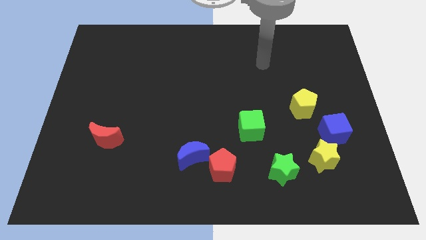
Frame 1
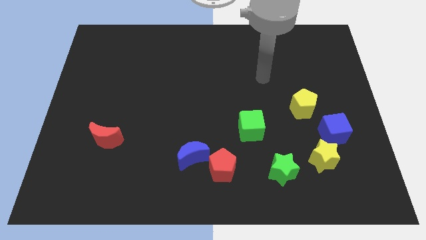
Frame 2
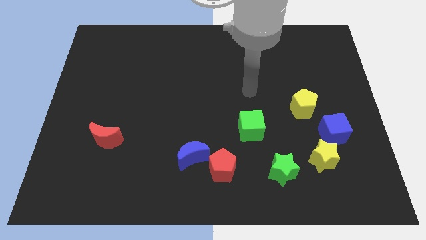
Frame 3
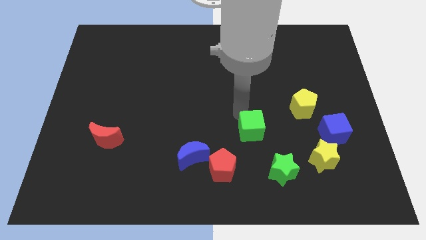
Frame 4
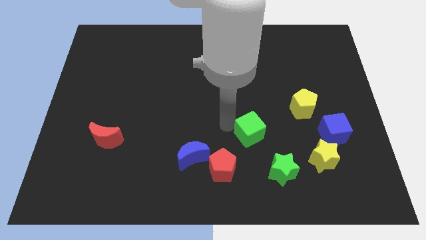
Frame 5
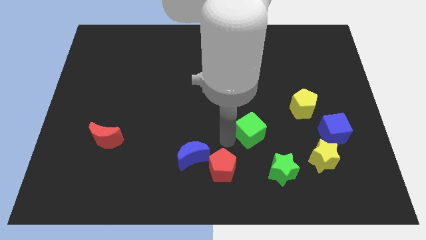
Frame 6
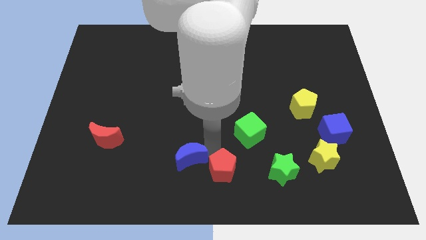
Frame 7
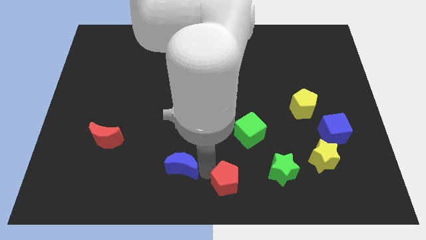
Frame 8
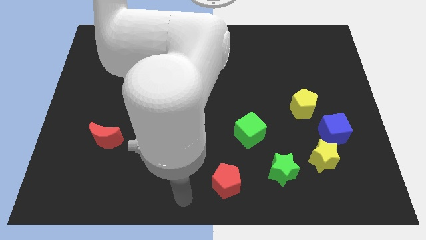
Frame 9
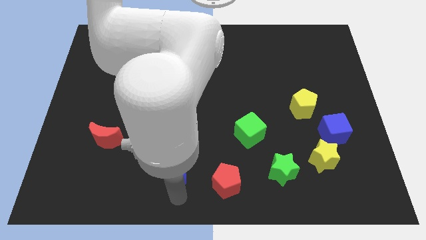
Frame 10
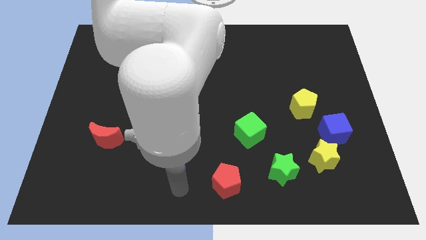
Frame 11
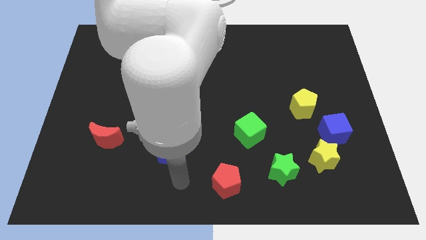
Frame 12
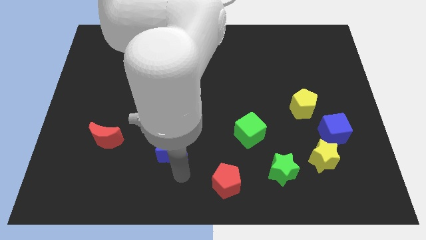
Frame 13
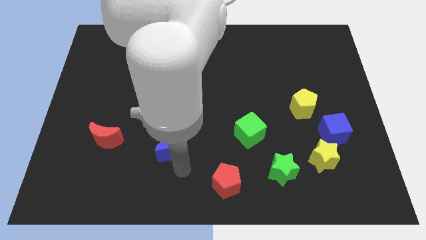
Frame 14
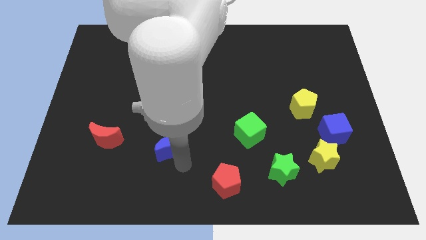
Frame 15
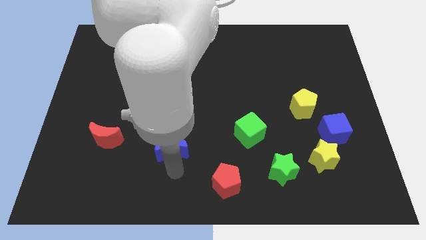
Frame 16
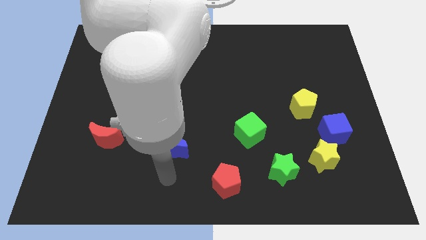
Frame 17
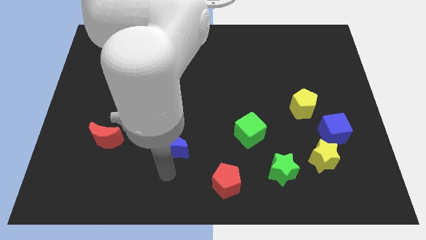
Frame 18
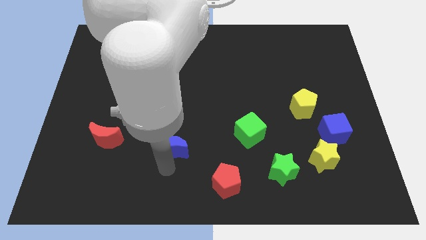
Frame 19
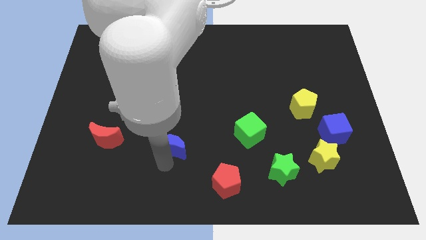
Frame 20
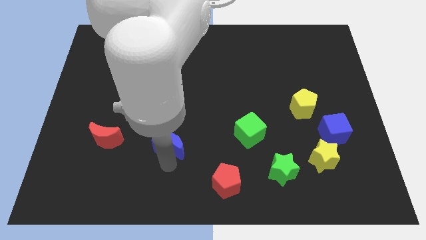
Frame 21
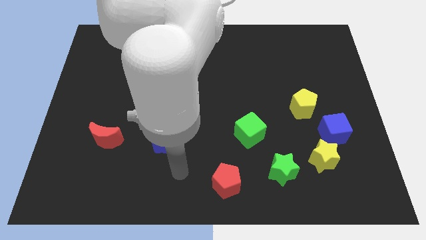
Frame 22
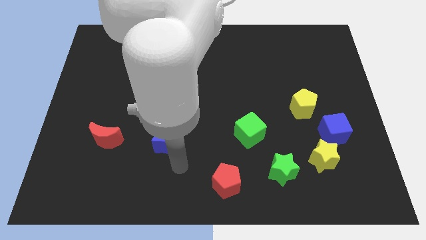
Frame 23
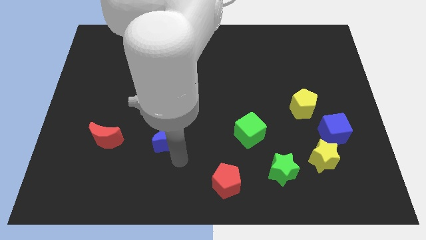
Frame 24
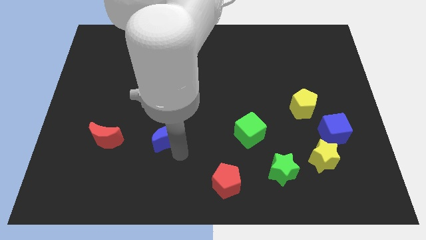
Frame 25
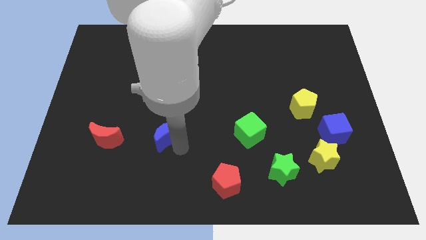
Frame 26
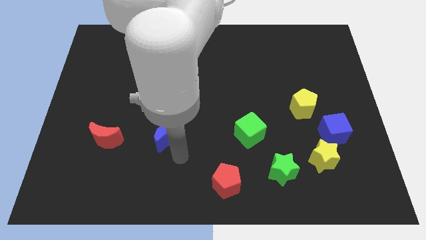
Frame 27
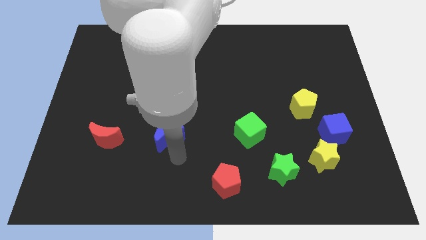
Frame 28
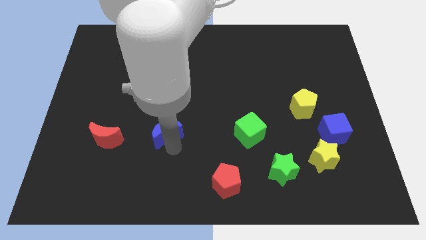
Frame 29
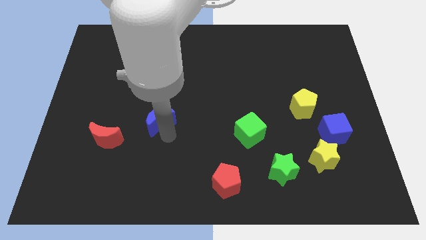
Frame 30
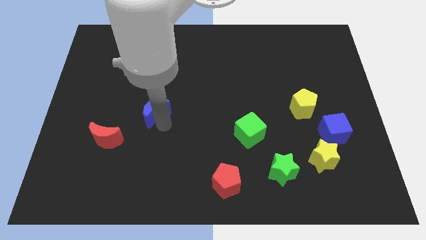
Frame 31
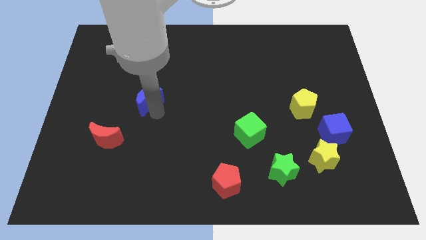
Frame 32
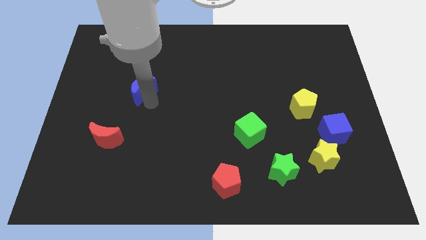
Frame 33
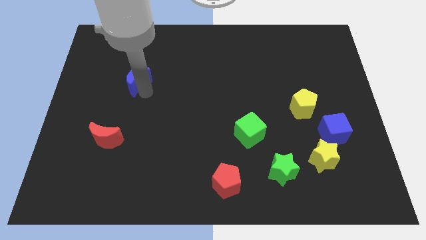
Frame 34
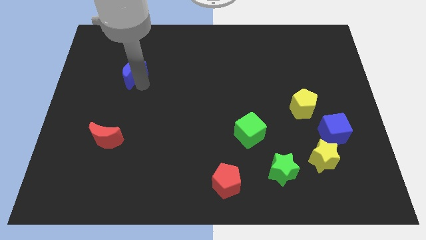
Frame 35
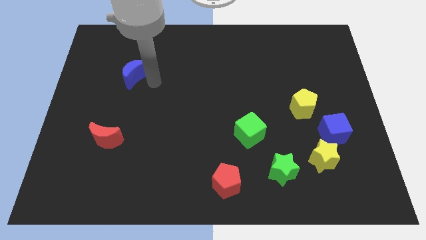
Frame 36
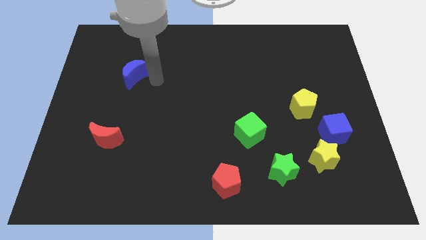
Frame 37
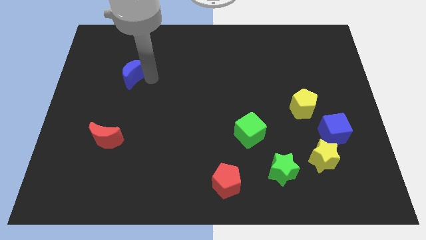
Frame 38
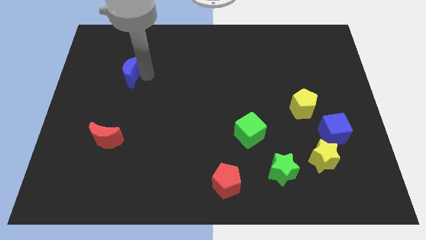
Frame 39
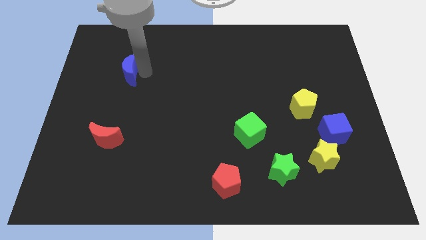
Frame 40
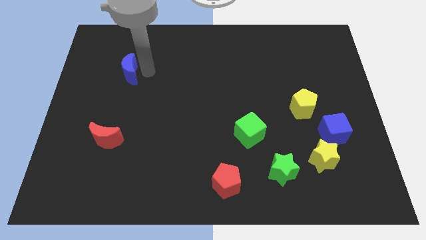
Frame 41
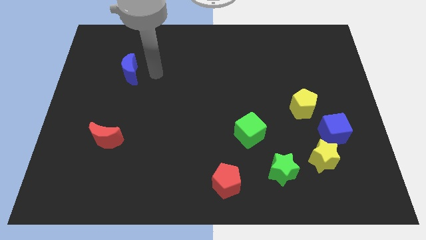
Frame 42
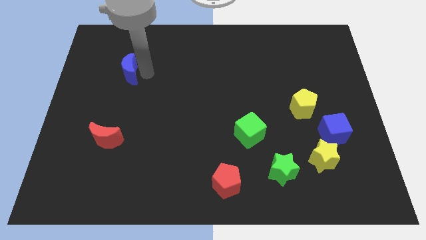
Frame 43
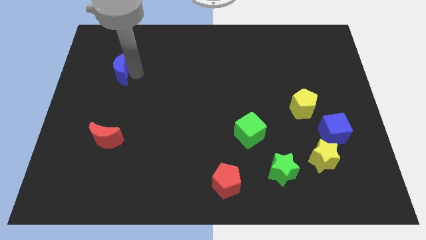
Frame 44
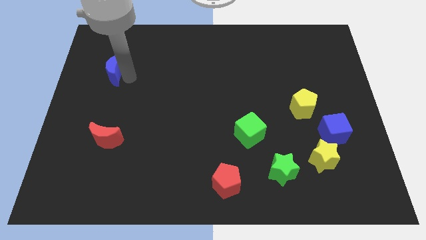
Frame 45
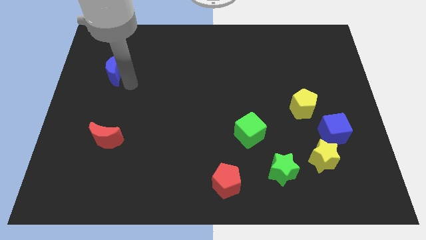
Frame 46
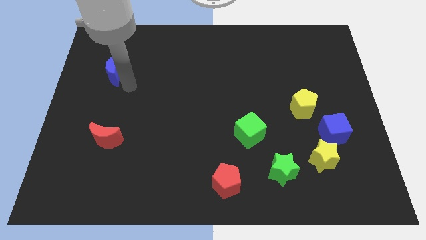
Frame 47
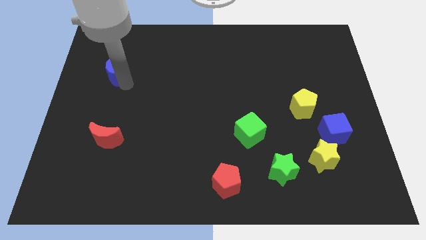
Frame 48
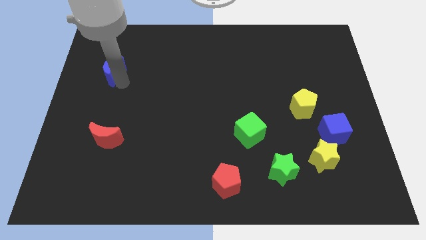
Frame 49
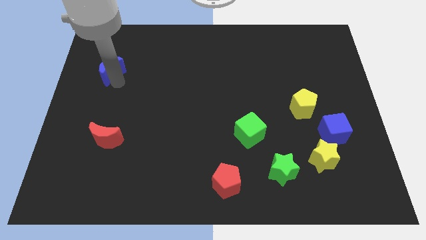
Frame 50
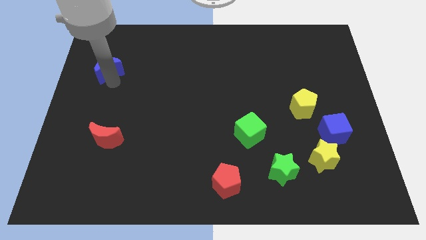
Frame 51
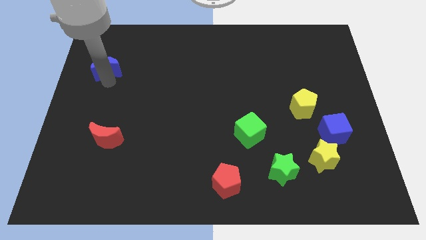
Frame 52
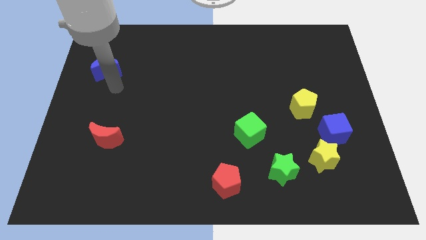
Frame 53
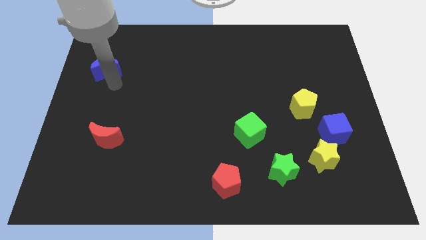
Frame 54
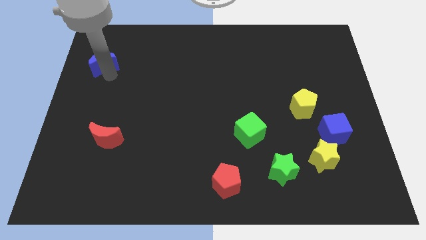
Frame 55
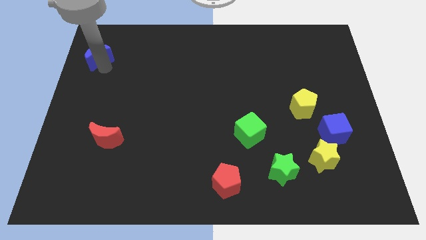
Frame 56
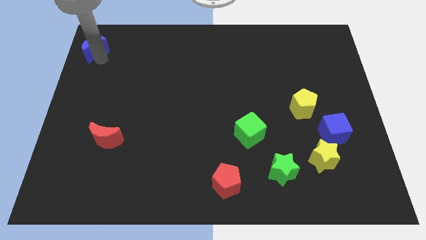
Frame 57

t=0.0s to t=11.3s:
push the blue moon to the top left corner

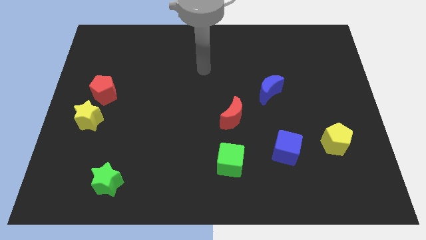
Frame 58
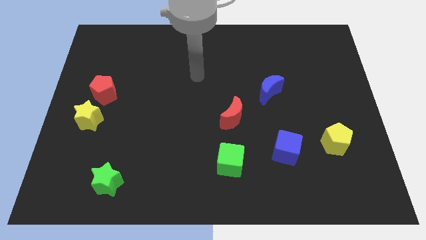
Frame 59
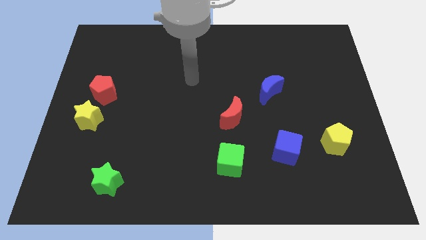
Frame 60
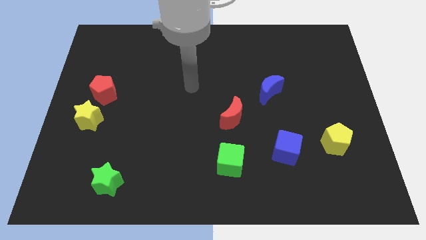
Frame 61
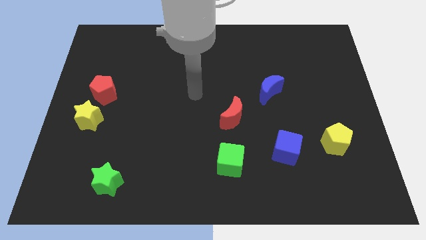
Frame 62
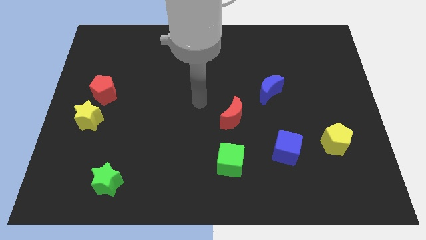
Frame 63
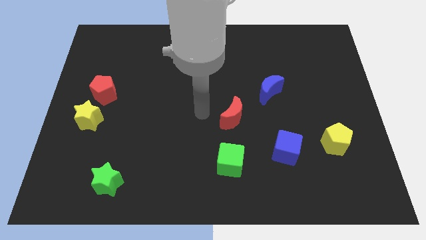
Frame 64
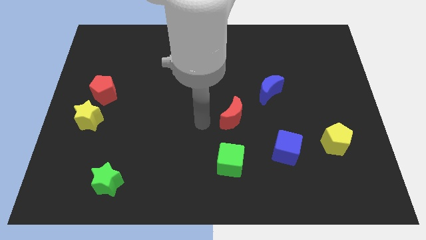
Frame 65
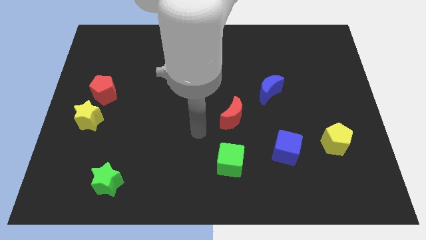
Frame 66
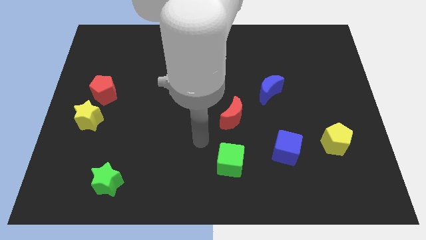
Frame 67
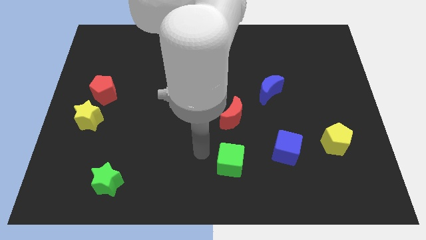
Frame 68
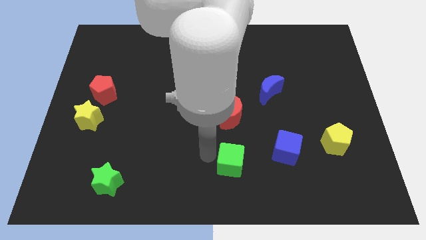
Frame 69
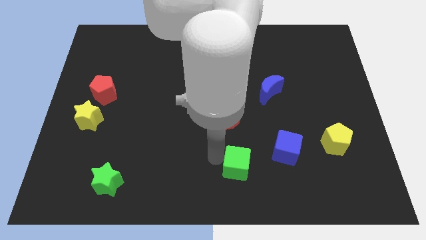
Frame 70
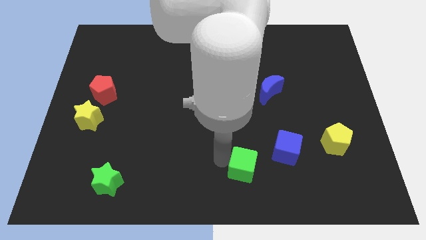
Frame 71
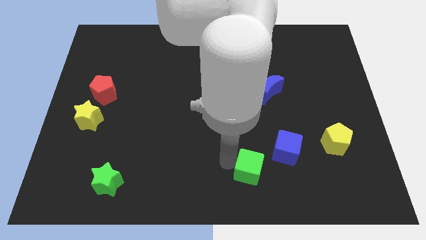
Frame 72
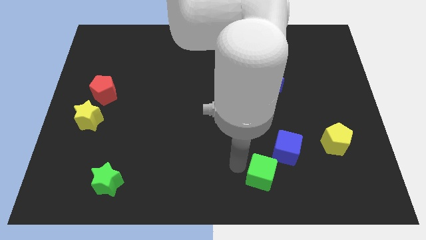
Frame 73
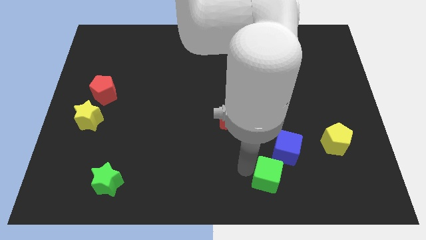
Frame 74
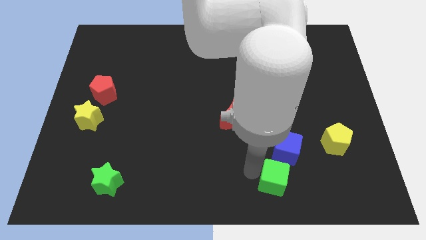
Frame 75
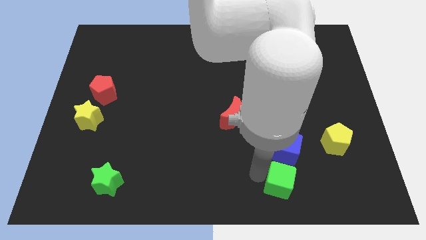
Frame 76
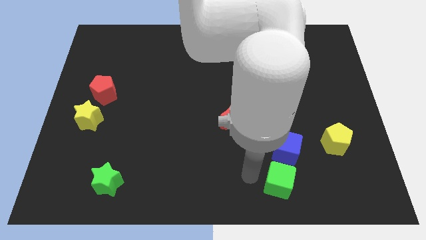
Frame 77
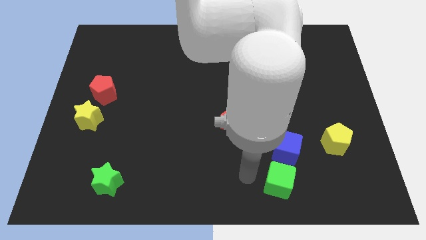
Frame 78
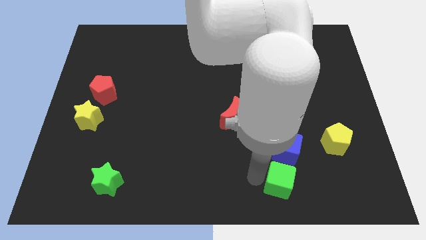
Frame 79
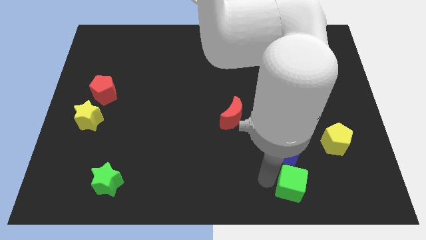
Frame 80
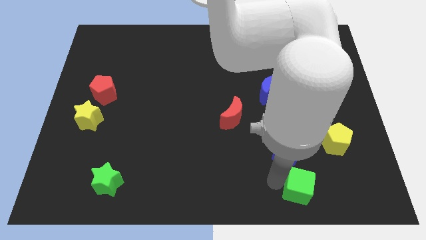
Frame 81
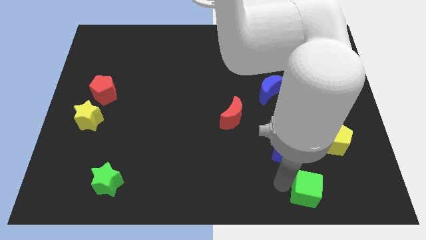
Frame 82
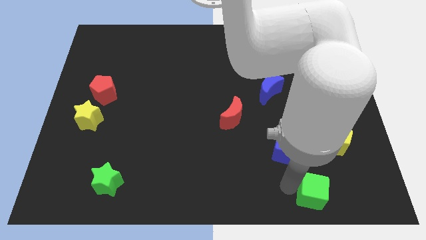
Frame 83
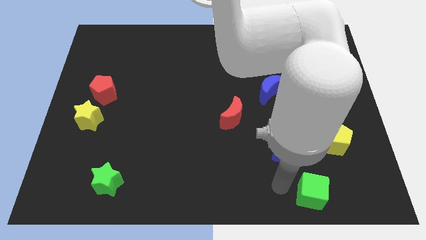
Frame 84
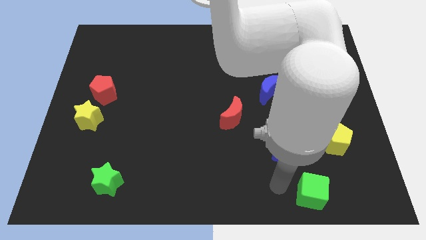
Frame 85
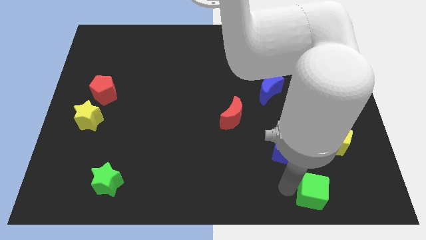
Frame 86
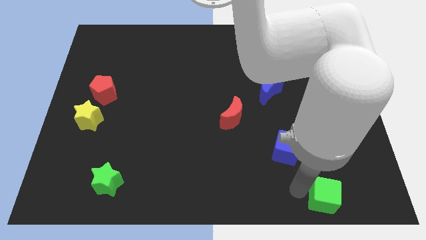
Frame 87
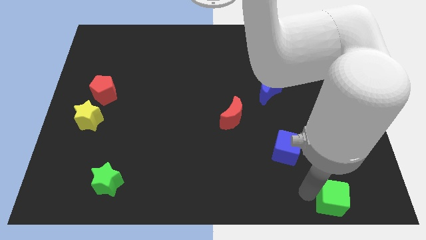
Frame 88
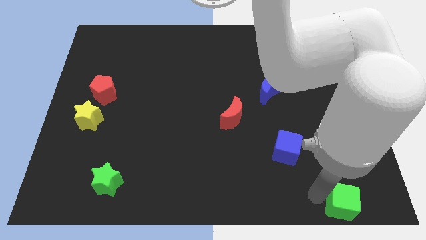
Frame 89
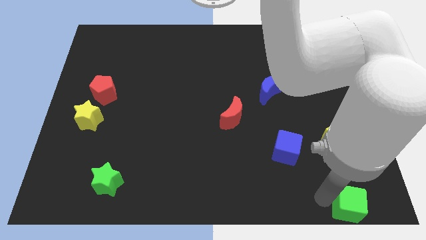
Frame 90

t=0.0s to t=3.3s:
slide the green cube to the lower right corner
